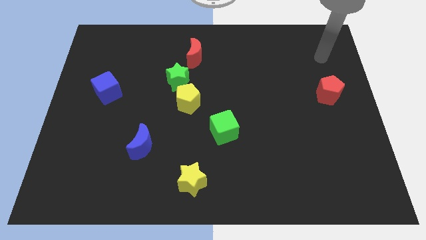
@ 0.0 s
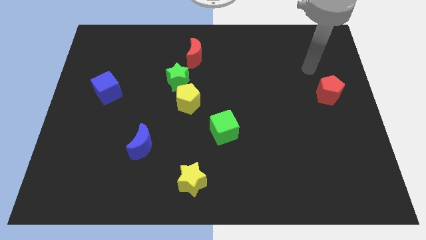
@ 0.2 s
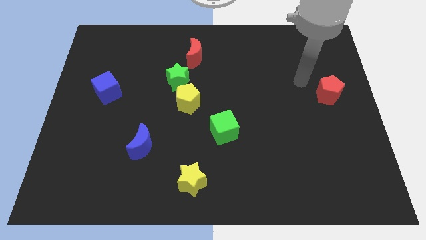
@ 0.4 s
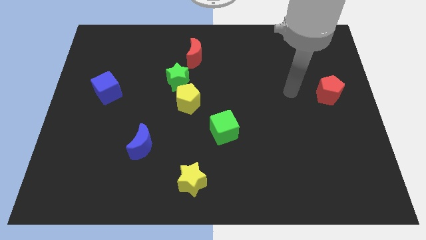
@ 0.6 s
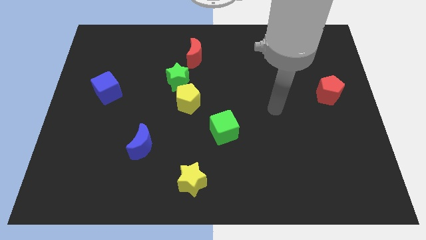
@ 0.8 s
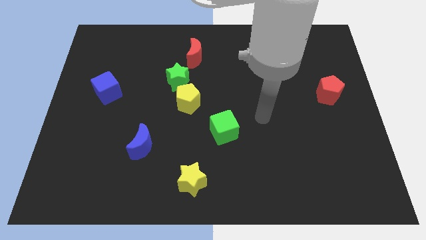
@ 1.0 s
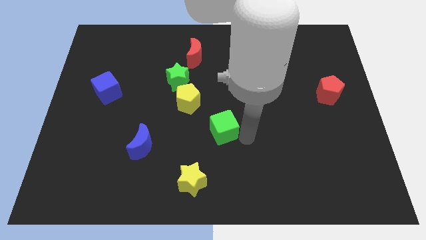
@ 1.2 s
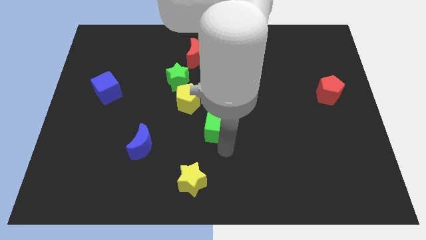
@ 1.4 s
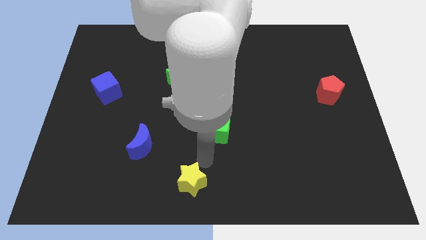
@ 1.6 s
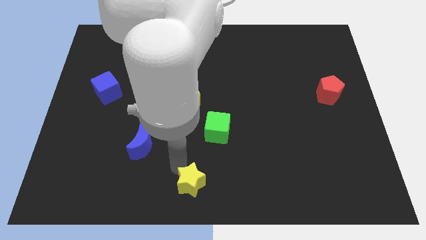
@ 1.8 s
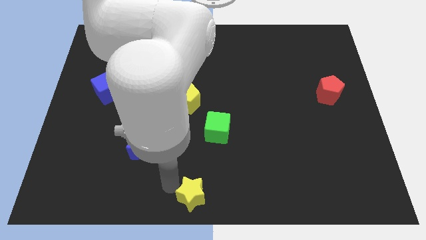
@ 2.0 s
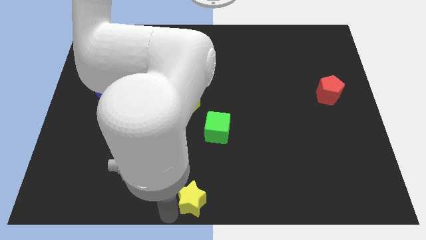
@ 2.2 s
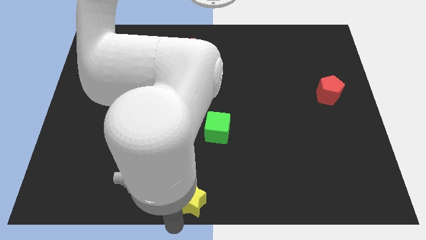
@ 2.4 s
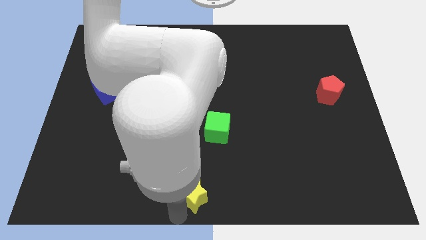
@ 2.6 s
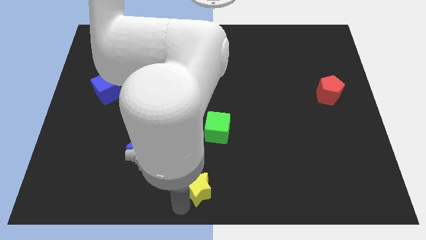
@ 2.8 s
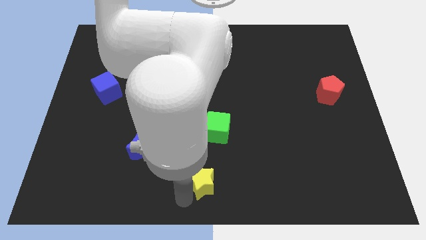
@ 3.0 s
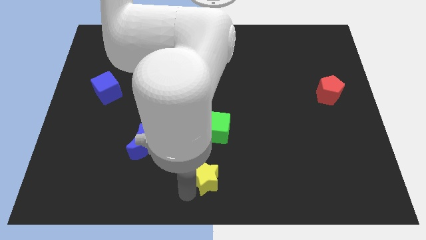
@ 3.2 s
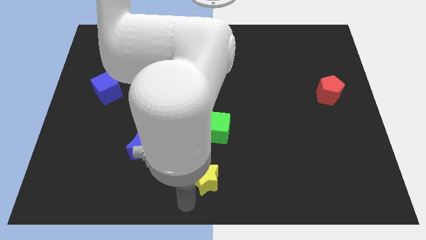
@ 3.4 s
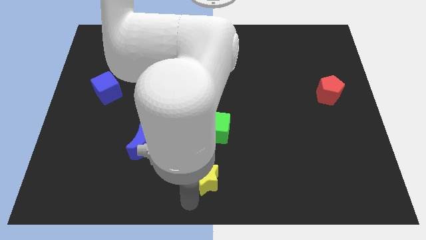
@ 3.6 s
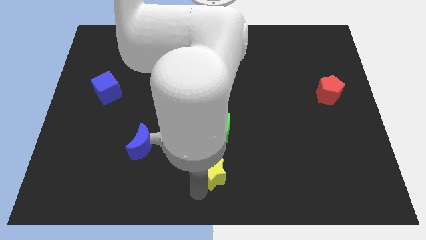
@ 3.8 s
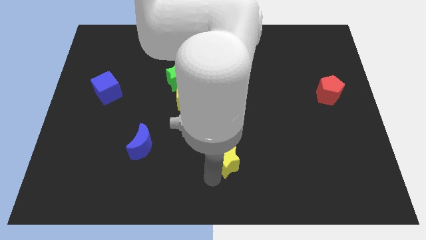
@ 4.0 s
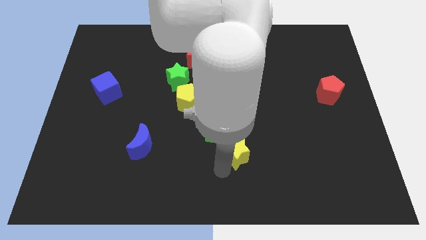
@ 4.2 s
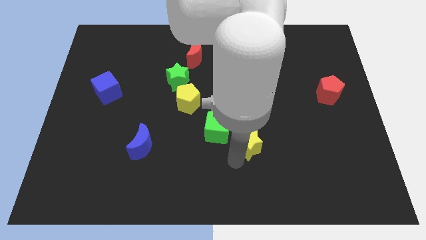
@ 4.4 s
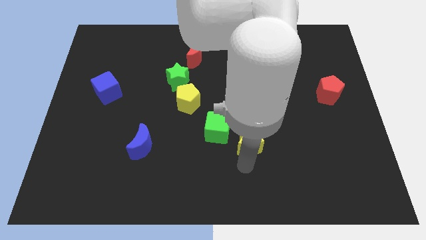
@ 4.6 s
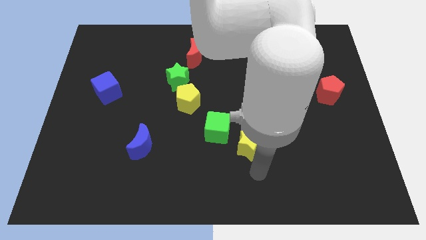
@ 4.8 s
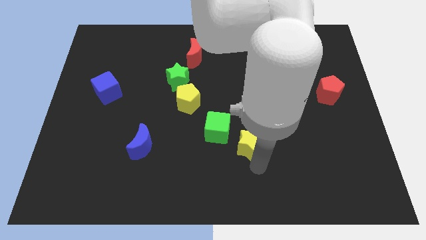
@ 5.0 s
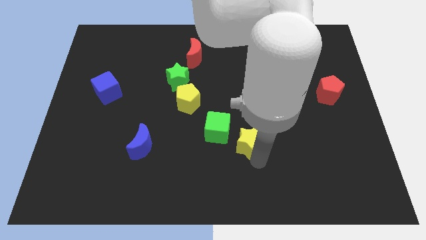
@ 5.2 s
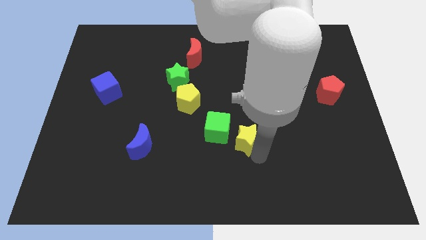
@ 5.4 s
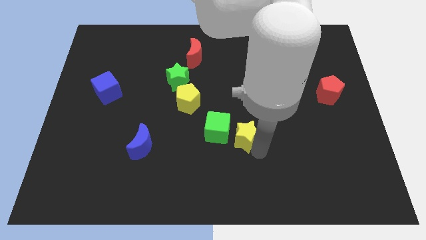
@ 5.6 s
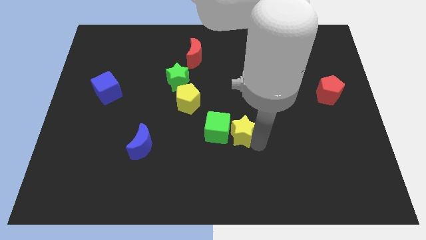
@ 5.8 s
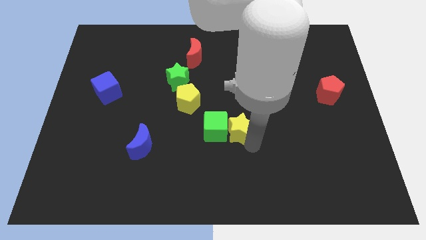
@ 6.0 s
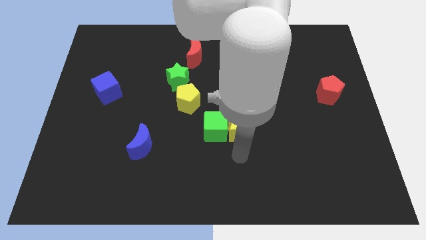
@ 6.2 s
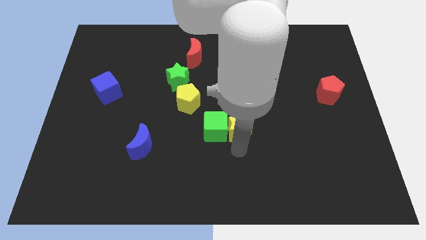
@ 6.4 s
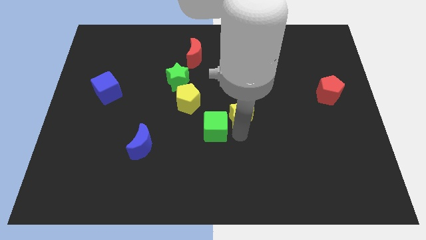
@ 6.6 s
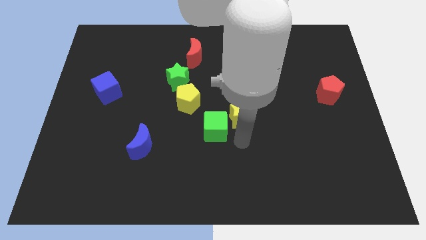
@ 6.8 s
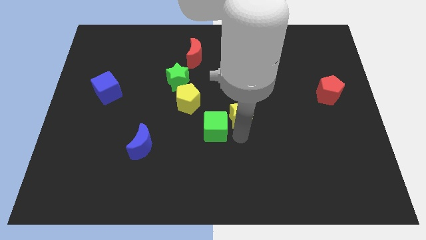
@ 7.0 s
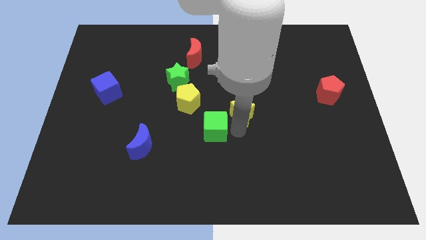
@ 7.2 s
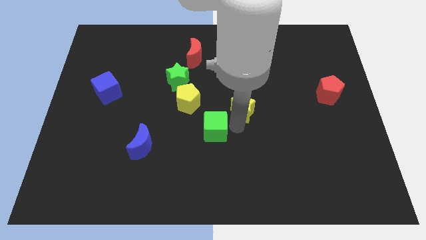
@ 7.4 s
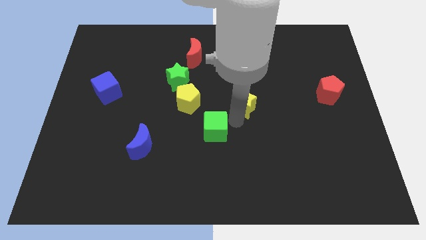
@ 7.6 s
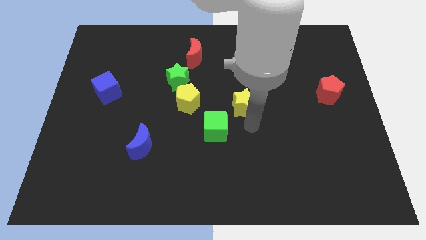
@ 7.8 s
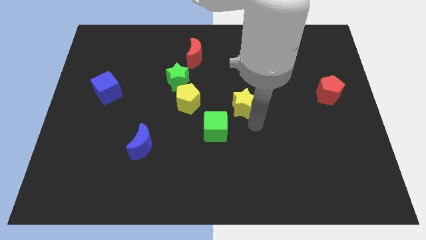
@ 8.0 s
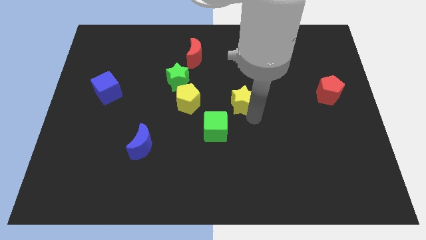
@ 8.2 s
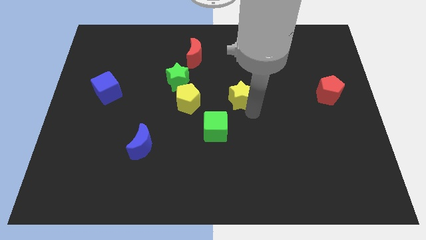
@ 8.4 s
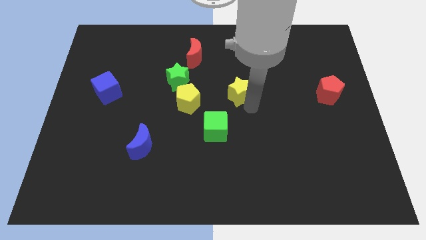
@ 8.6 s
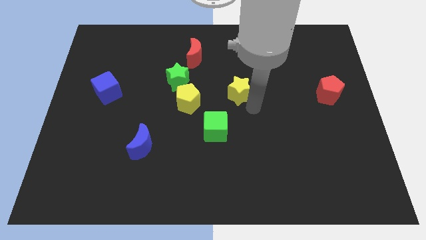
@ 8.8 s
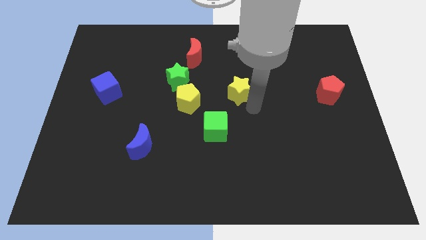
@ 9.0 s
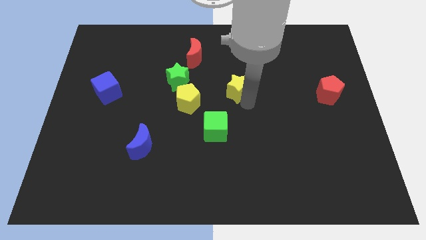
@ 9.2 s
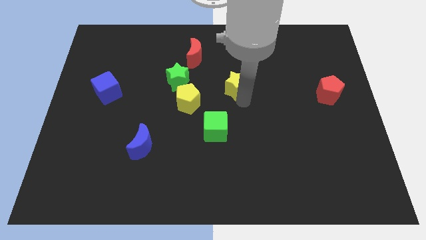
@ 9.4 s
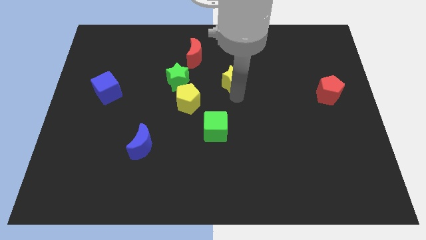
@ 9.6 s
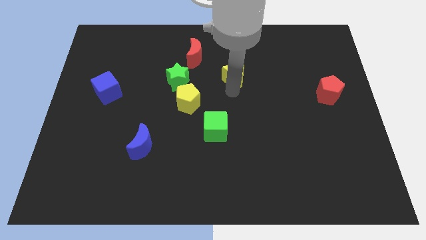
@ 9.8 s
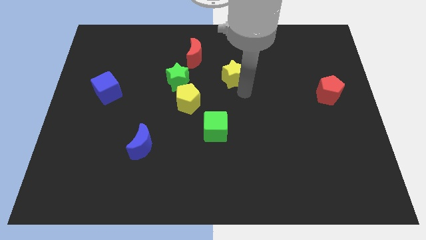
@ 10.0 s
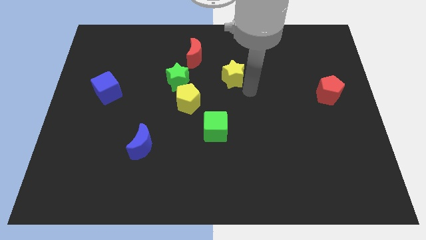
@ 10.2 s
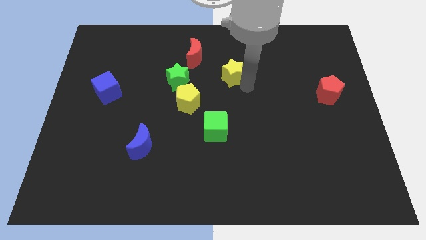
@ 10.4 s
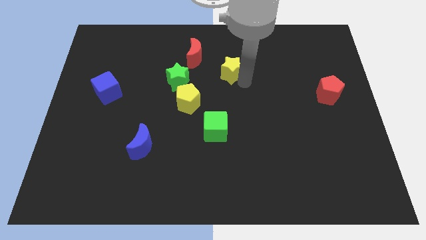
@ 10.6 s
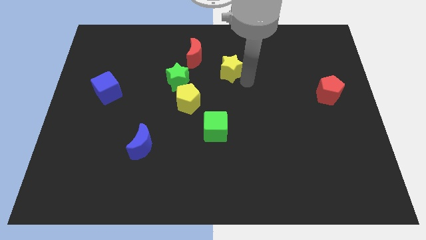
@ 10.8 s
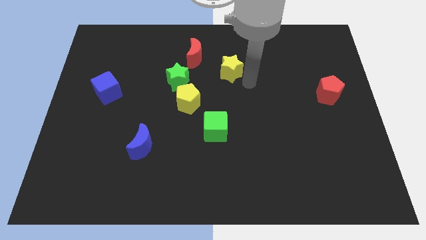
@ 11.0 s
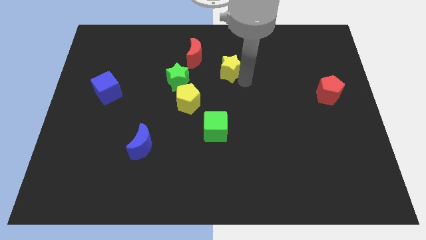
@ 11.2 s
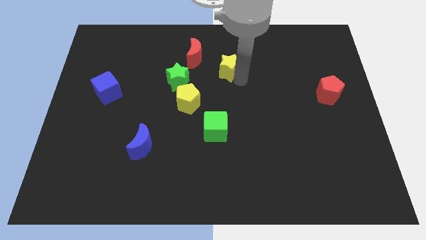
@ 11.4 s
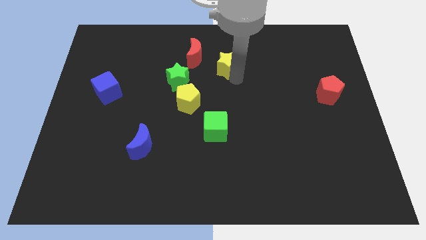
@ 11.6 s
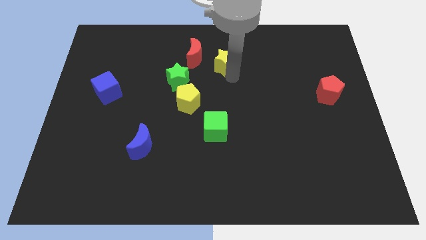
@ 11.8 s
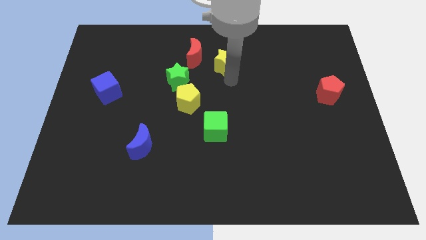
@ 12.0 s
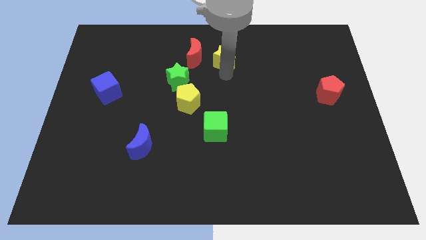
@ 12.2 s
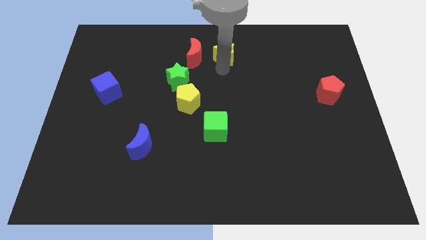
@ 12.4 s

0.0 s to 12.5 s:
push the yellow star to the top
